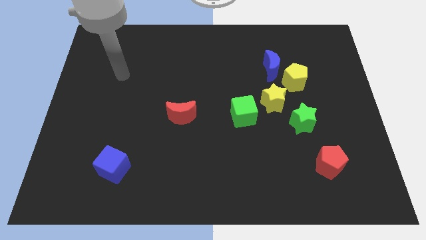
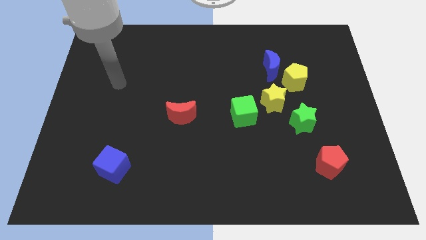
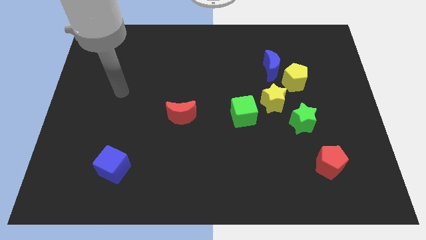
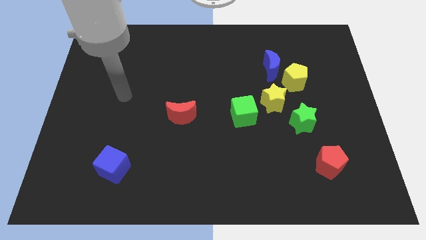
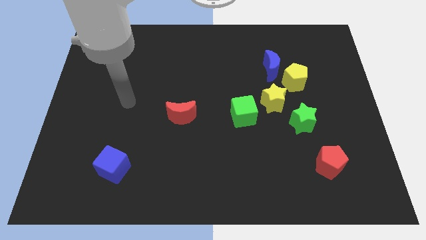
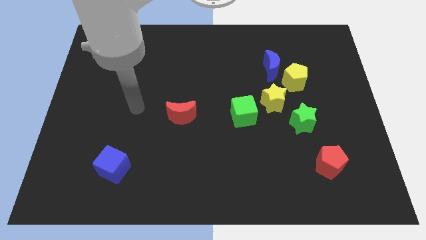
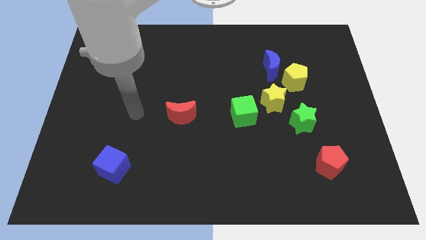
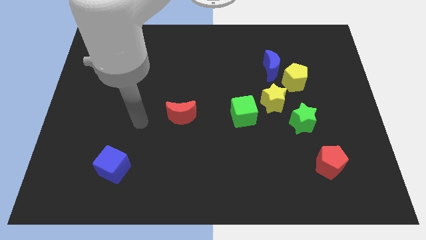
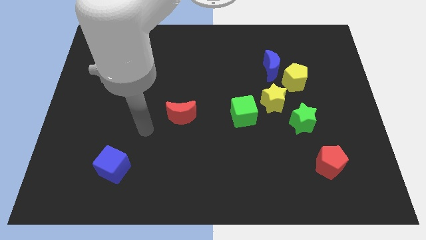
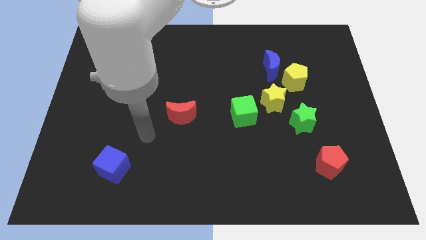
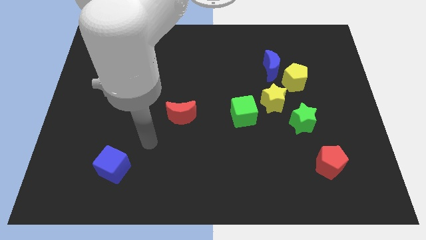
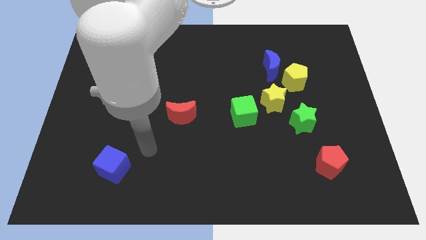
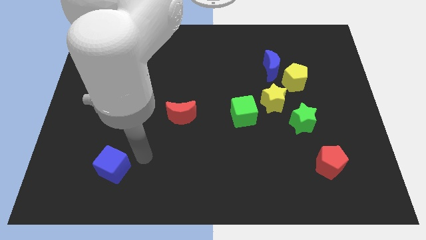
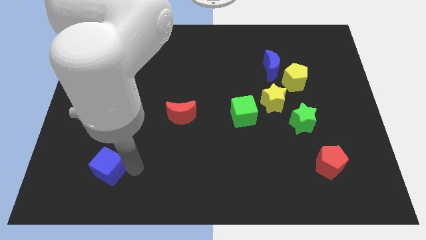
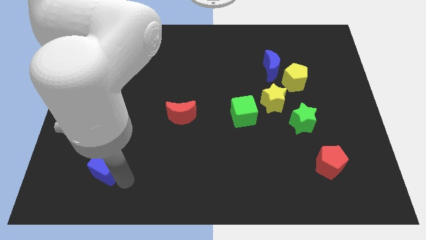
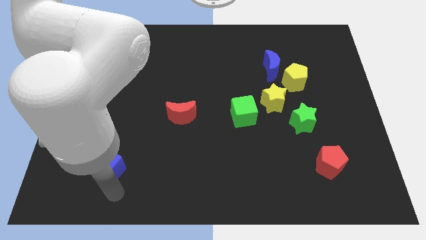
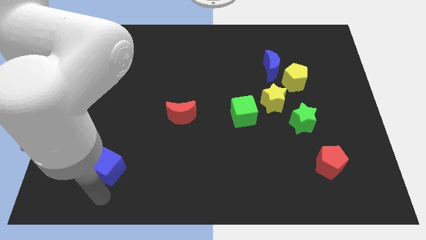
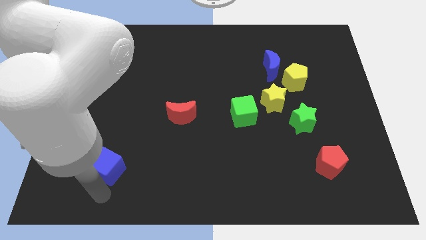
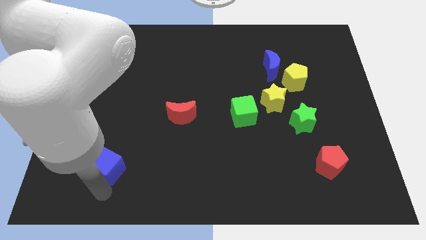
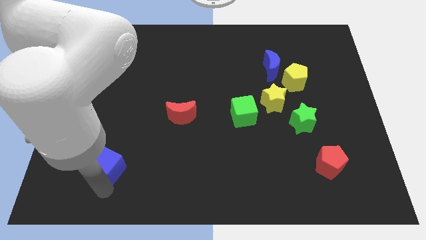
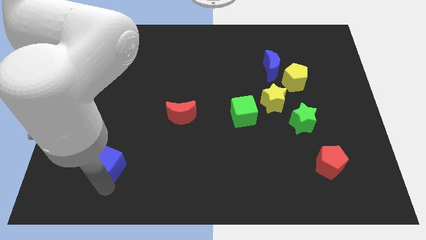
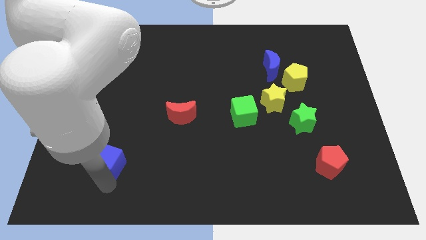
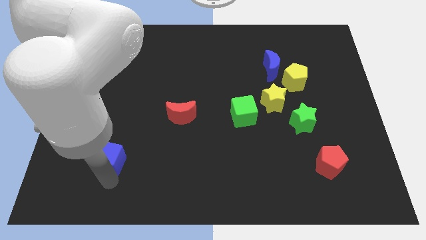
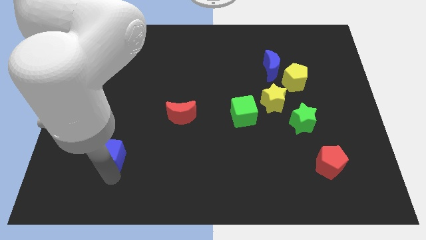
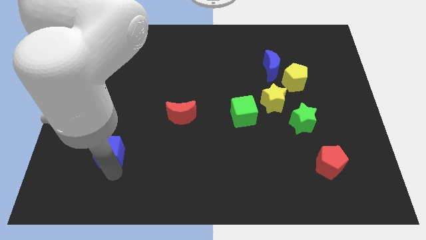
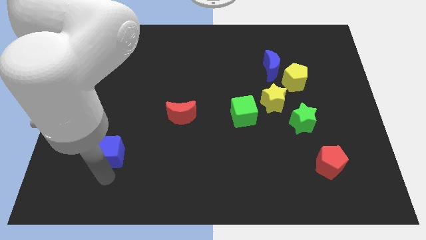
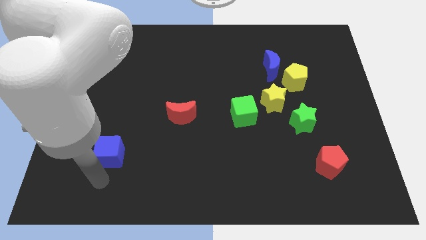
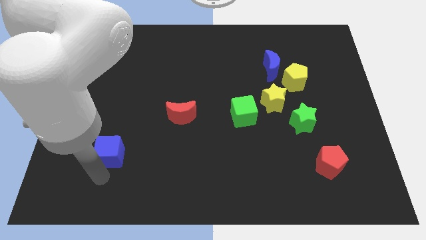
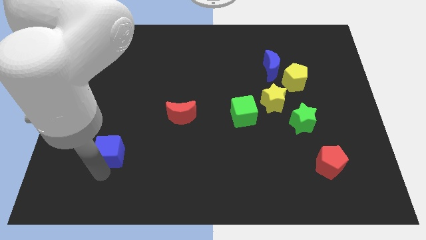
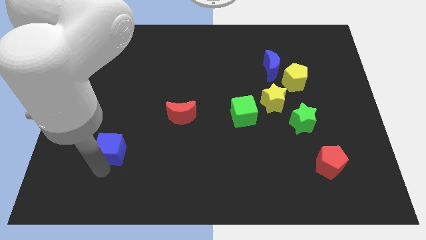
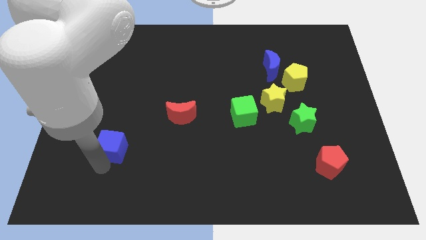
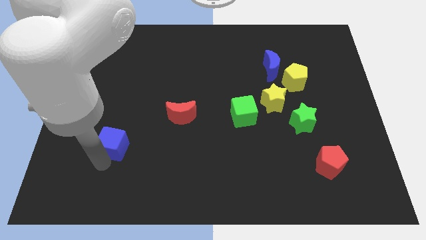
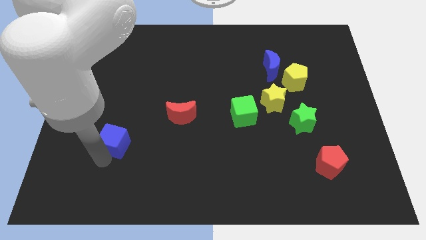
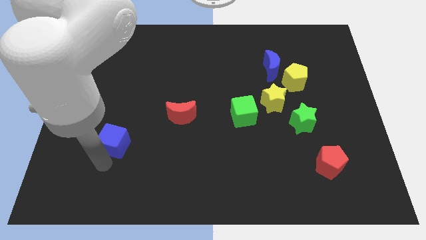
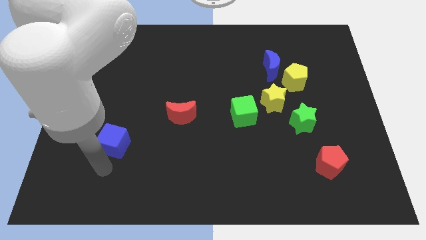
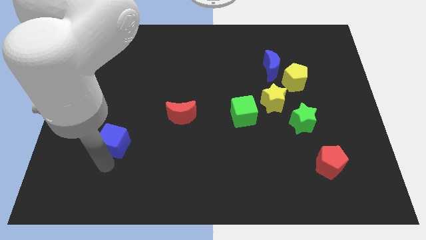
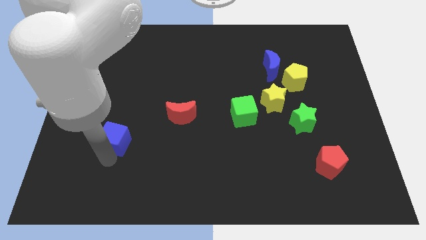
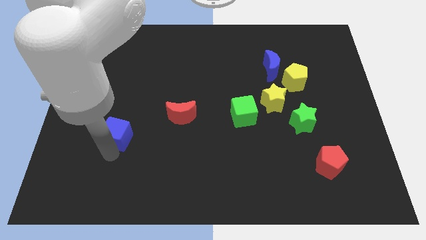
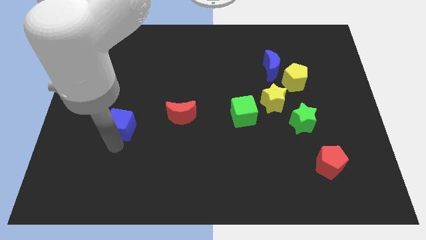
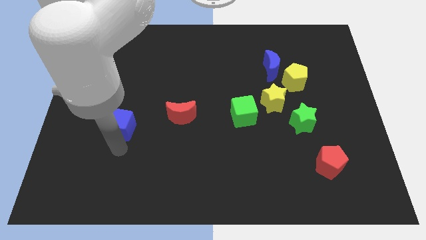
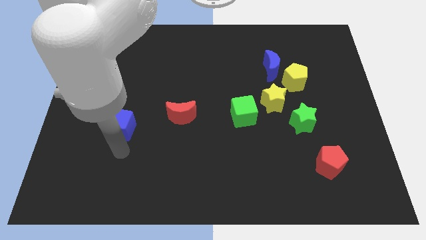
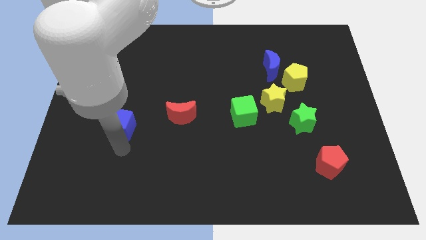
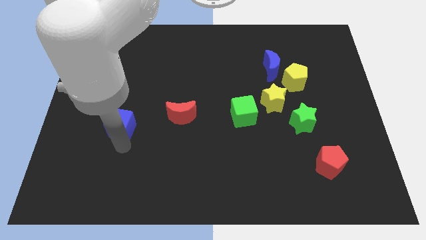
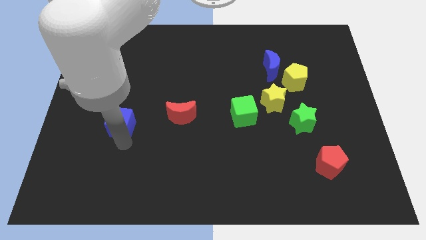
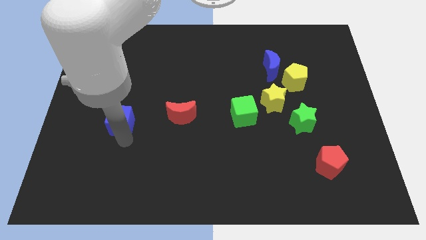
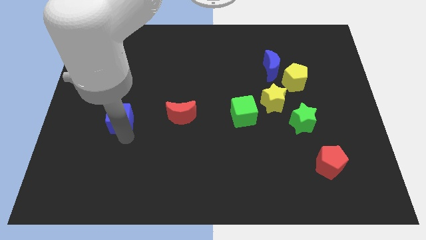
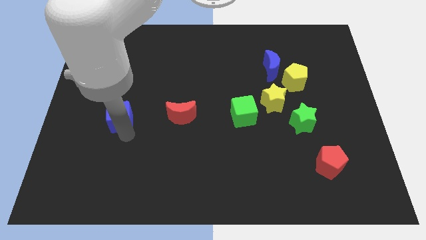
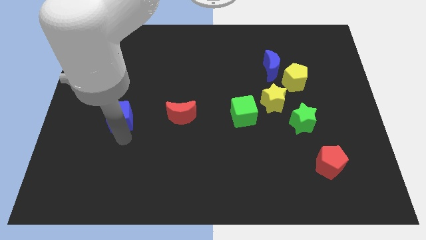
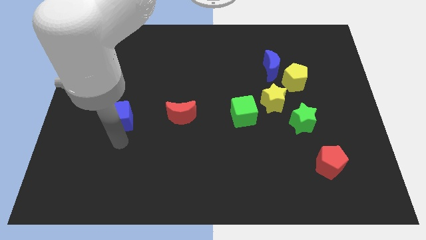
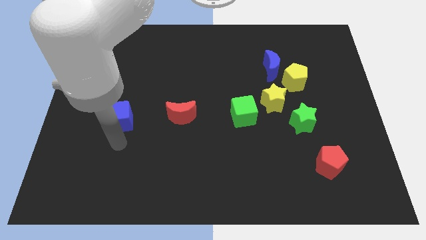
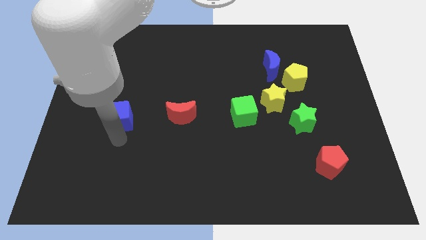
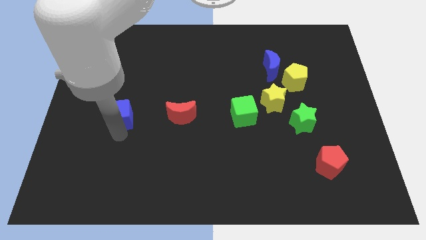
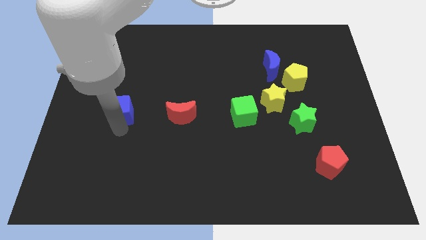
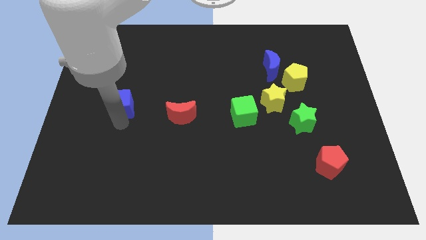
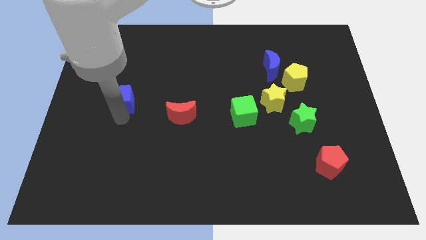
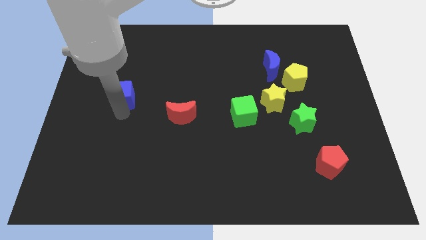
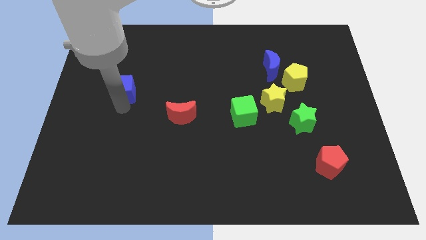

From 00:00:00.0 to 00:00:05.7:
move the blue cube upwards

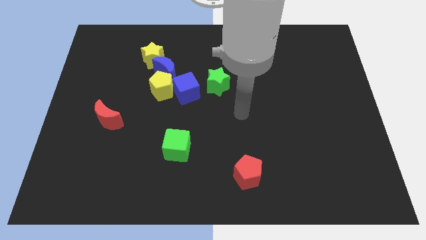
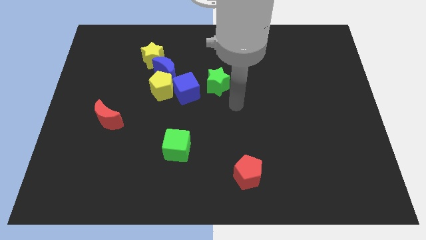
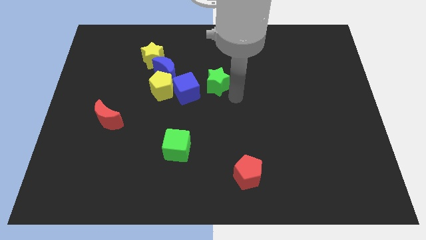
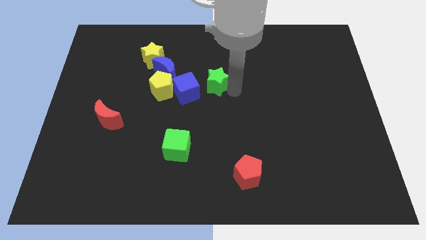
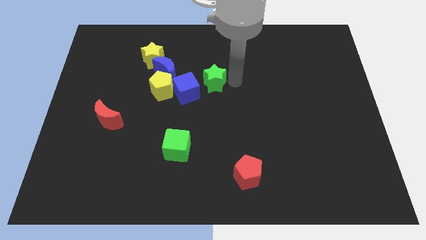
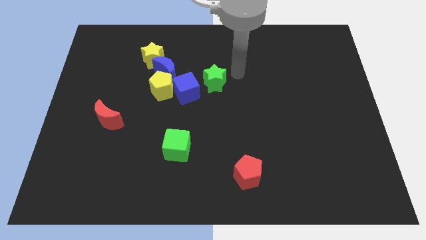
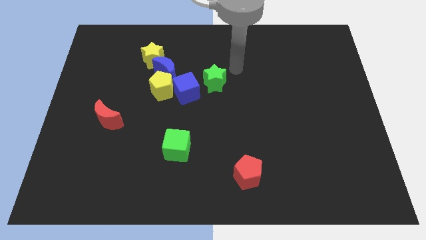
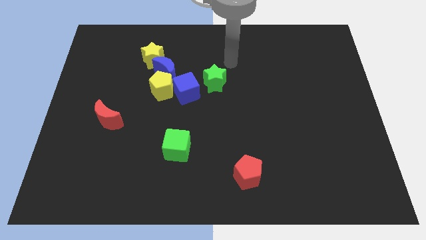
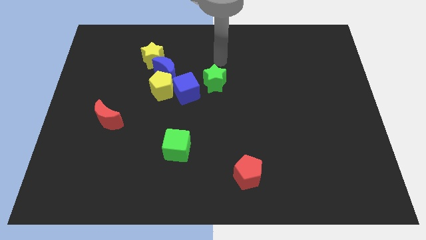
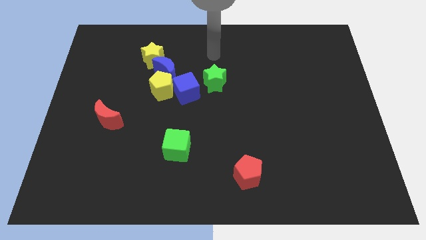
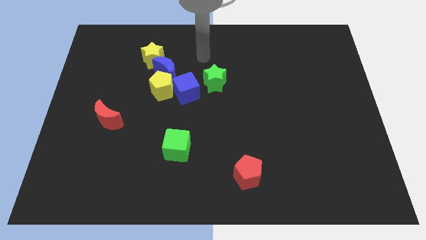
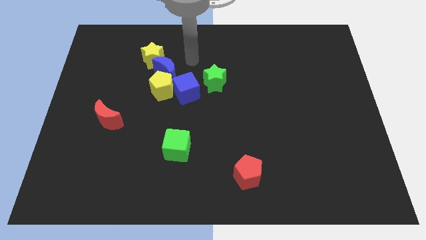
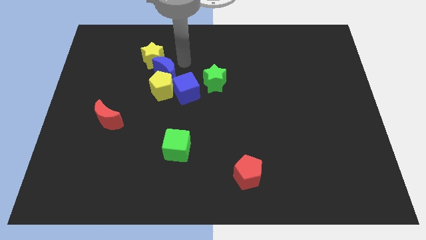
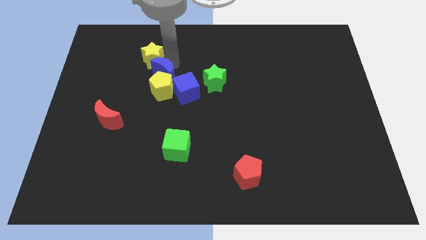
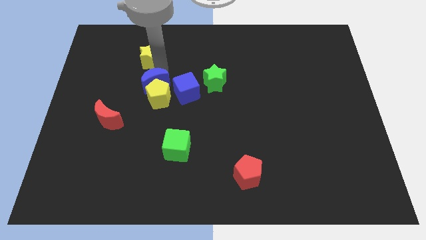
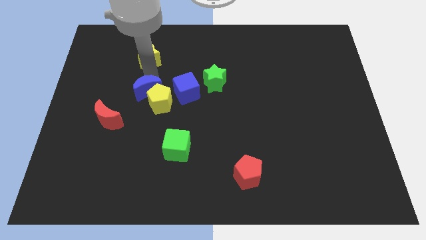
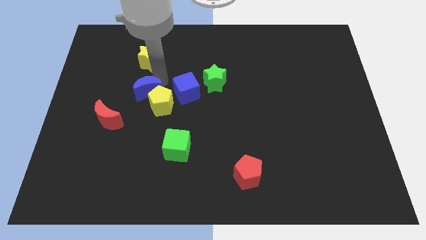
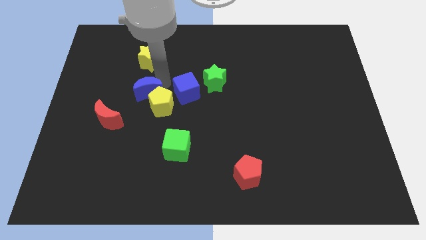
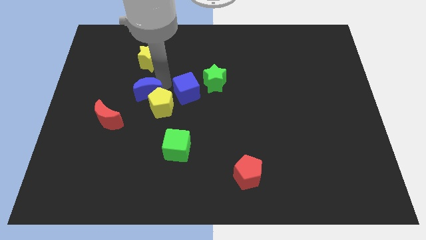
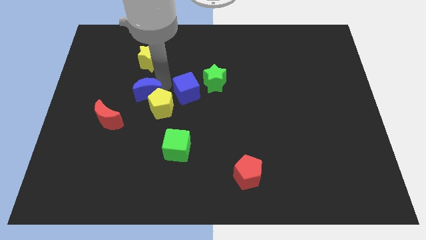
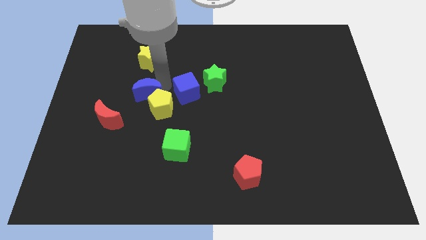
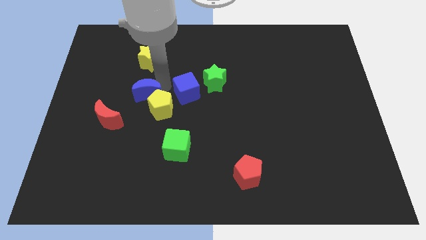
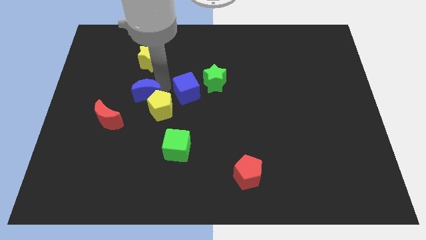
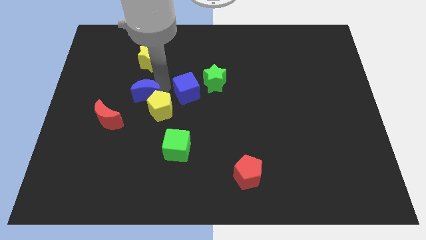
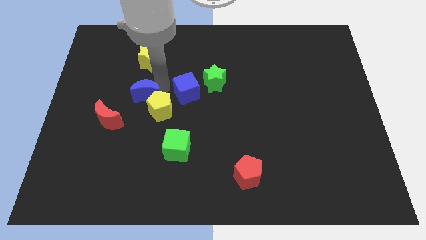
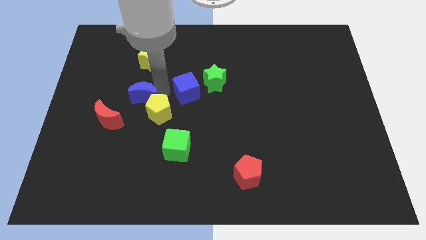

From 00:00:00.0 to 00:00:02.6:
move the yellow pentagon a little bit down
